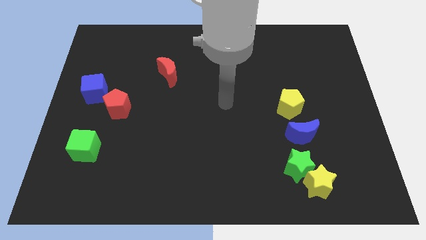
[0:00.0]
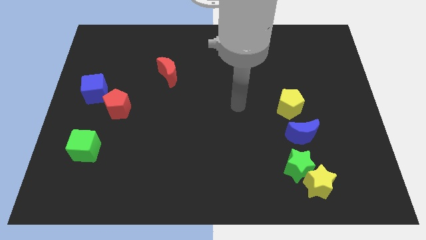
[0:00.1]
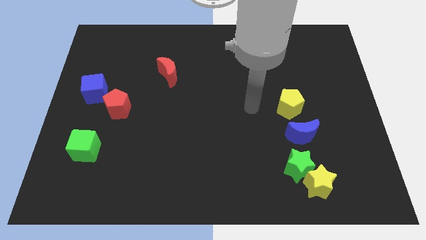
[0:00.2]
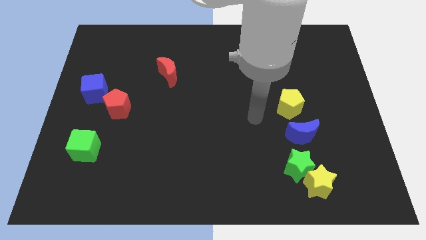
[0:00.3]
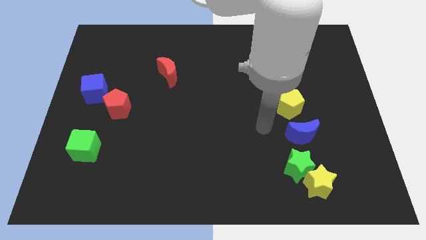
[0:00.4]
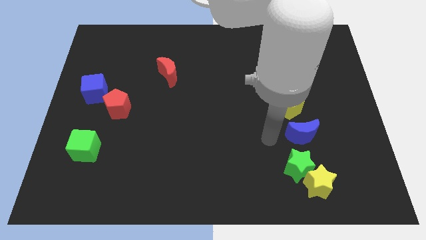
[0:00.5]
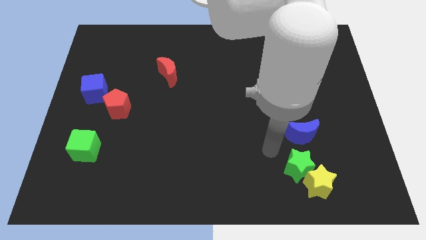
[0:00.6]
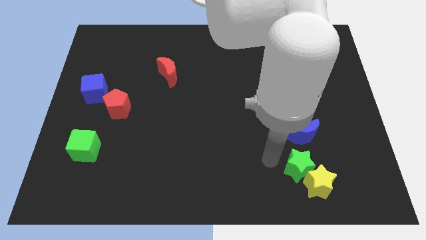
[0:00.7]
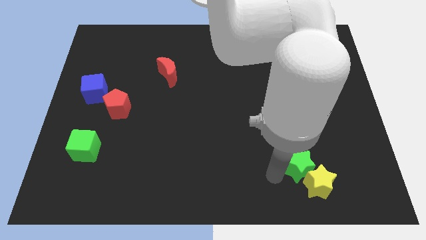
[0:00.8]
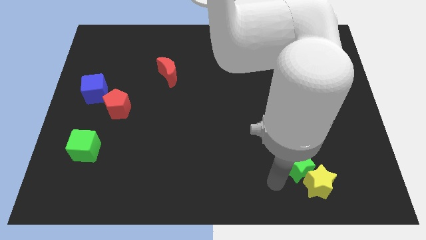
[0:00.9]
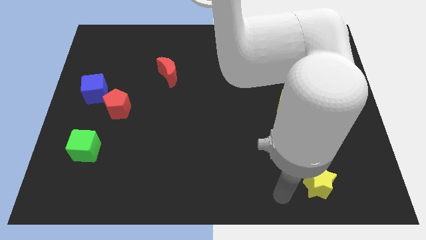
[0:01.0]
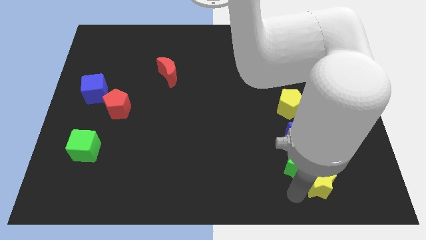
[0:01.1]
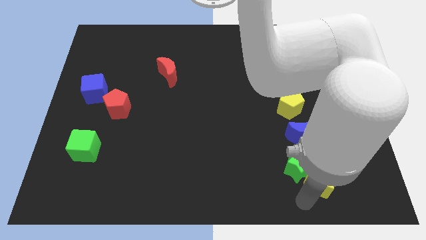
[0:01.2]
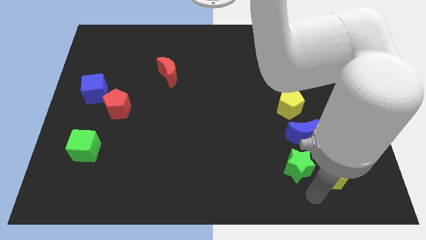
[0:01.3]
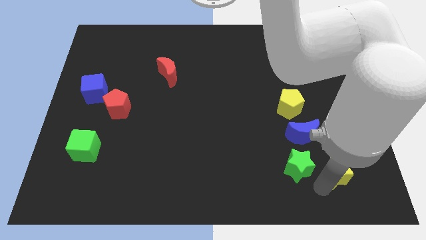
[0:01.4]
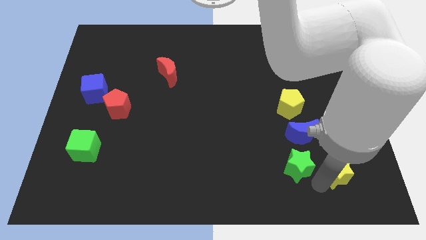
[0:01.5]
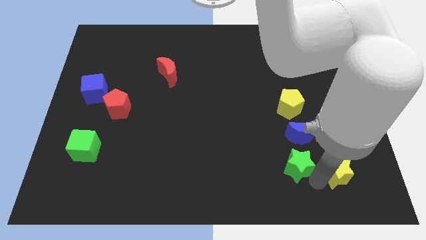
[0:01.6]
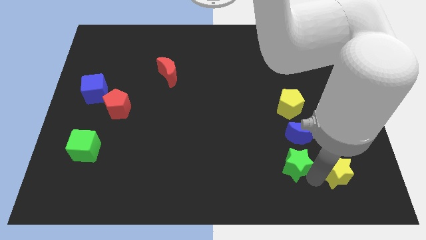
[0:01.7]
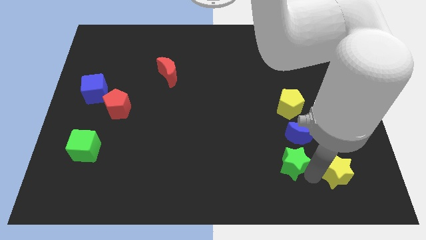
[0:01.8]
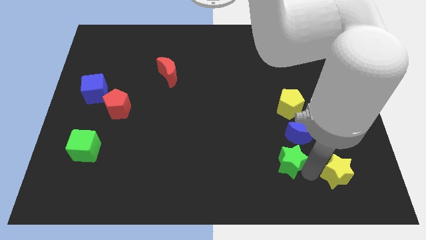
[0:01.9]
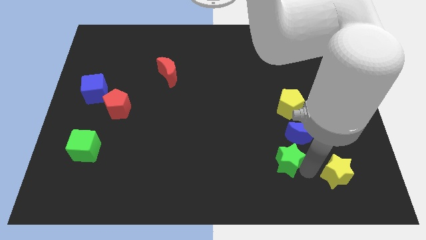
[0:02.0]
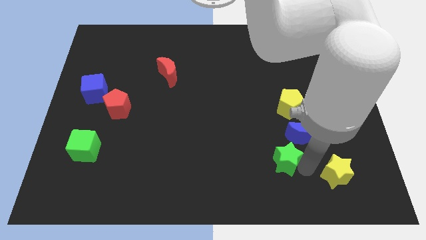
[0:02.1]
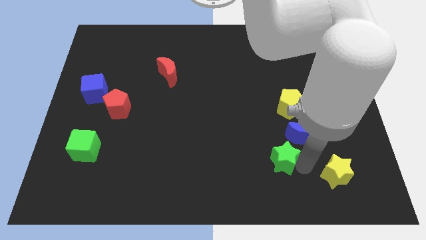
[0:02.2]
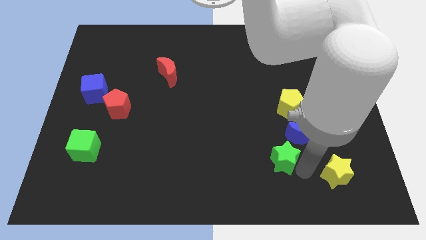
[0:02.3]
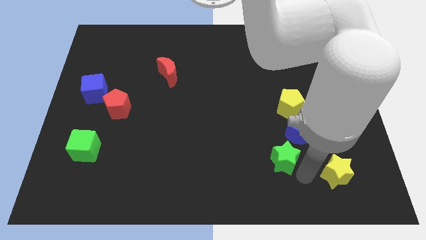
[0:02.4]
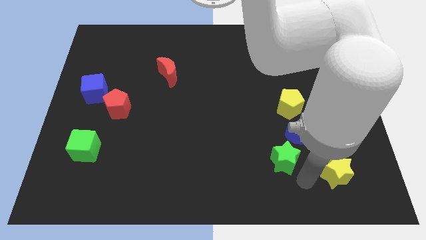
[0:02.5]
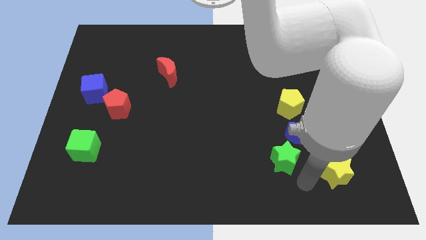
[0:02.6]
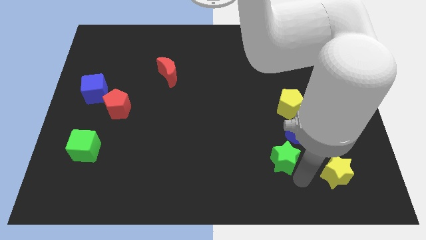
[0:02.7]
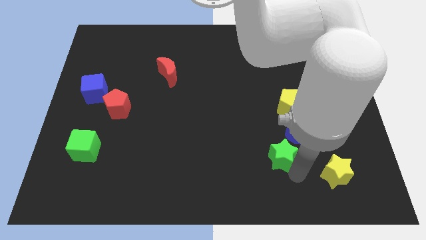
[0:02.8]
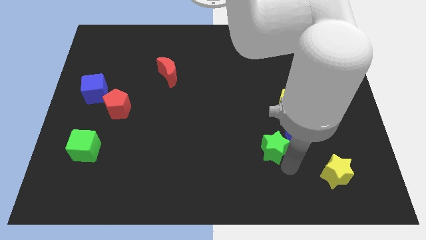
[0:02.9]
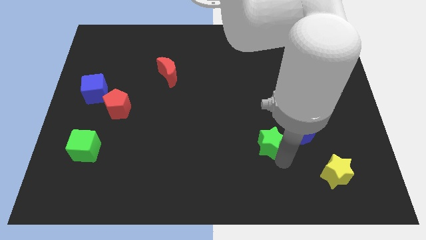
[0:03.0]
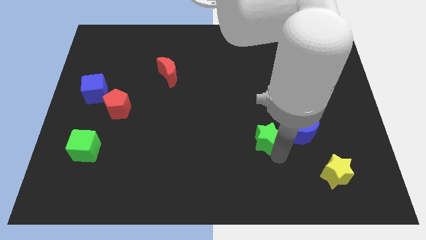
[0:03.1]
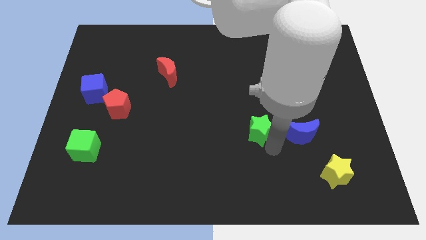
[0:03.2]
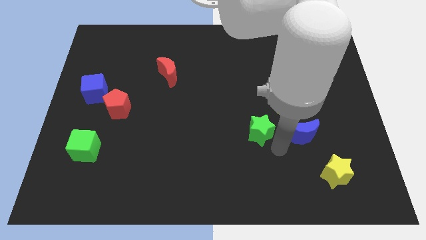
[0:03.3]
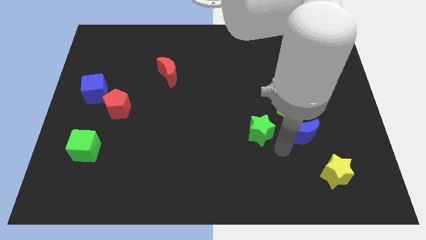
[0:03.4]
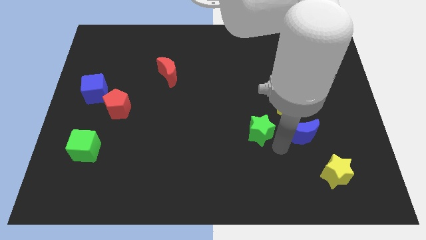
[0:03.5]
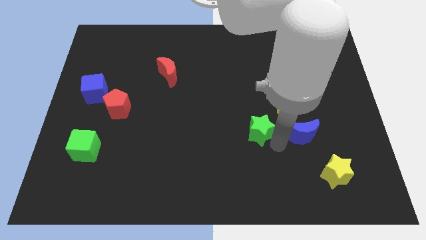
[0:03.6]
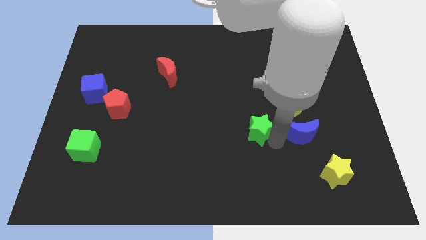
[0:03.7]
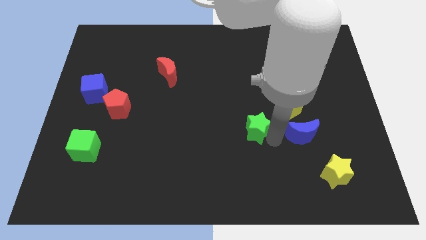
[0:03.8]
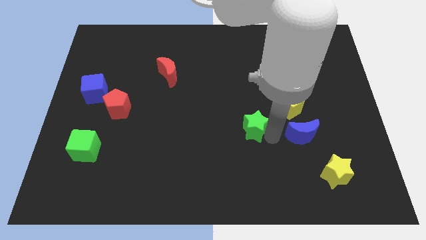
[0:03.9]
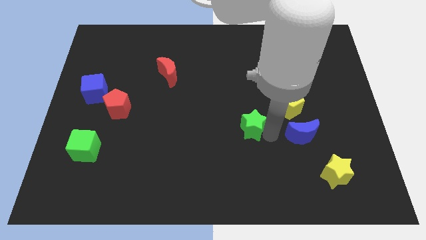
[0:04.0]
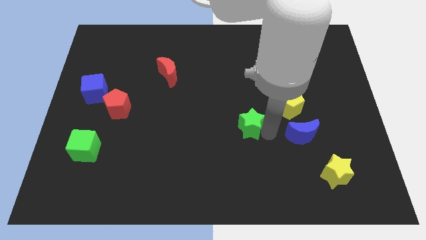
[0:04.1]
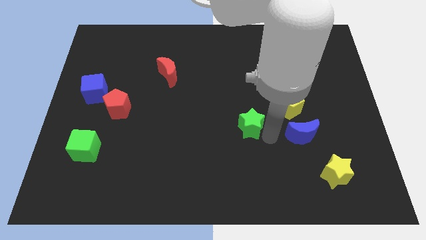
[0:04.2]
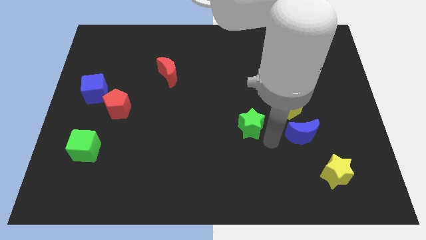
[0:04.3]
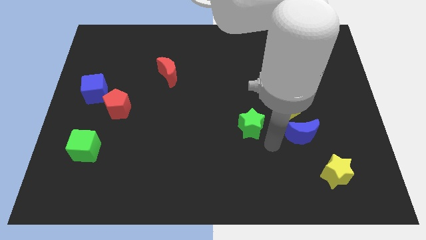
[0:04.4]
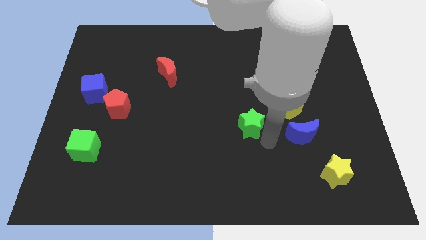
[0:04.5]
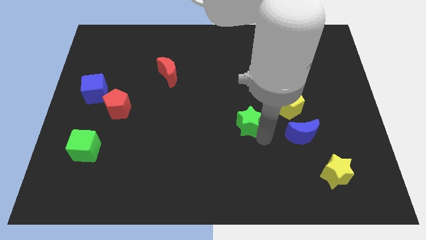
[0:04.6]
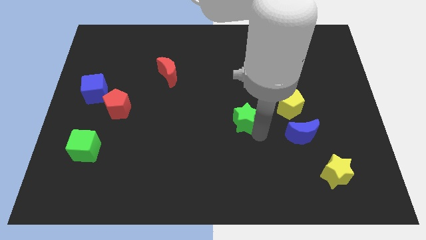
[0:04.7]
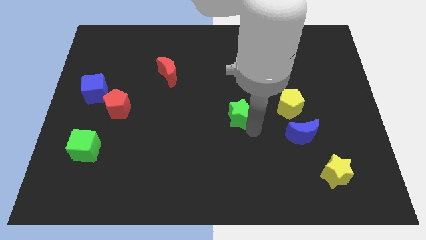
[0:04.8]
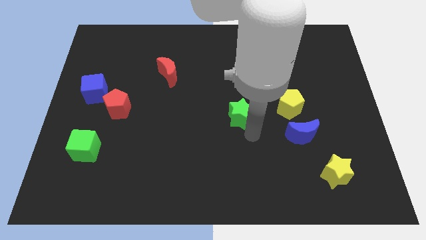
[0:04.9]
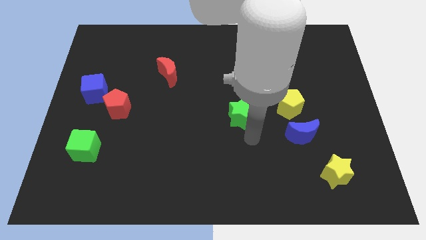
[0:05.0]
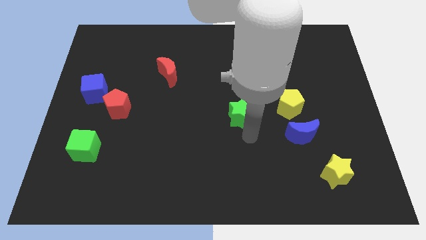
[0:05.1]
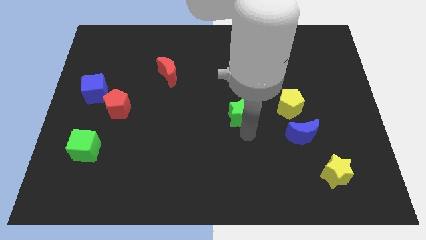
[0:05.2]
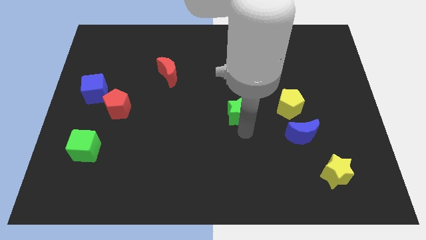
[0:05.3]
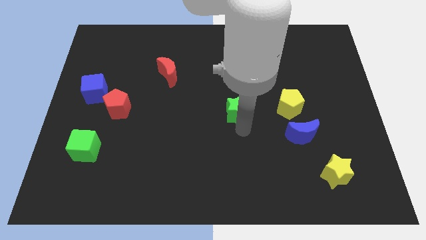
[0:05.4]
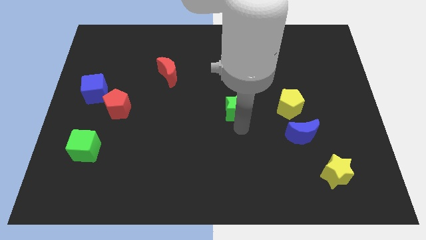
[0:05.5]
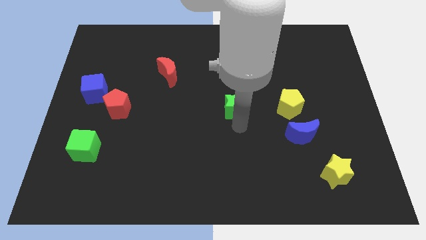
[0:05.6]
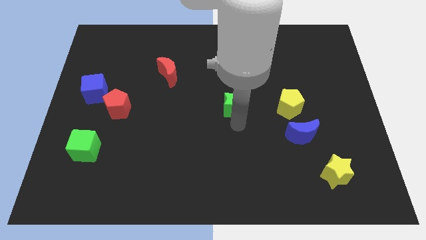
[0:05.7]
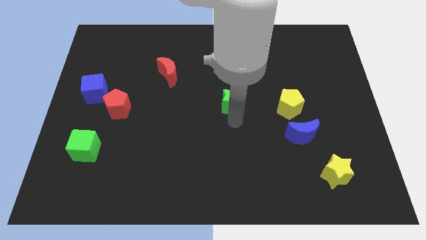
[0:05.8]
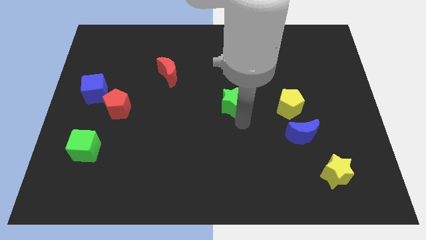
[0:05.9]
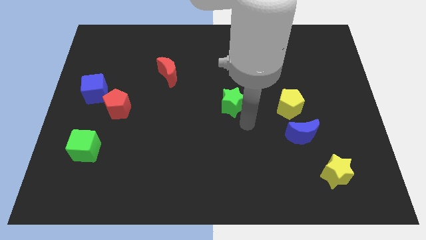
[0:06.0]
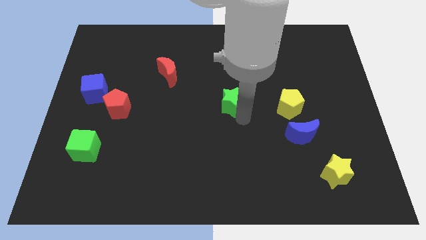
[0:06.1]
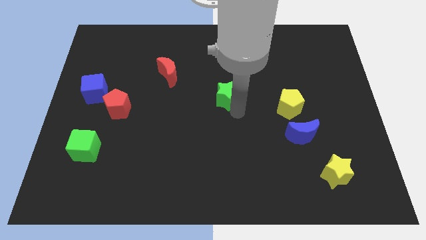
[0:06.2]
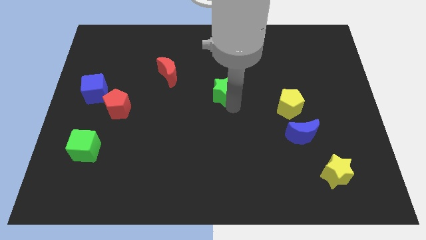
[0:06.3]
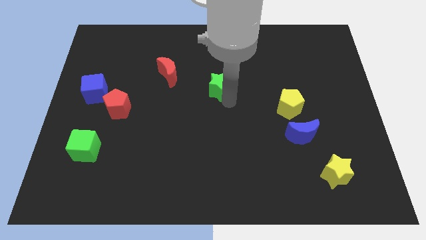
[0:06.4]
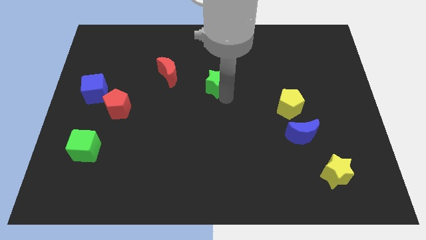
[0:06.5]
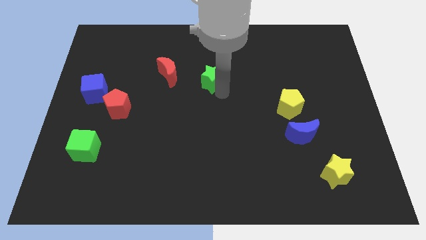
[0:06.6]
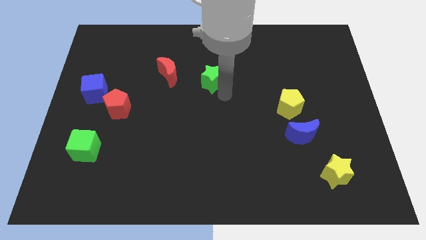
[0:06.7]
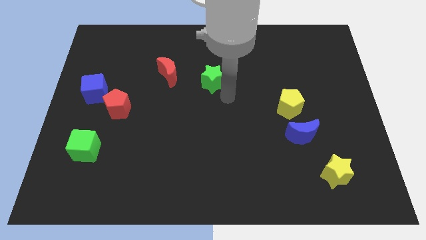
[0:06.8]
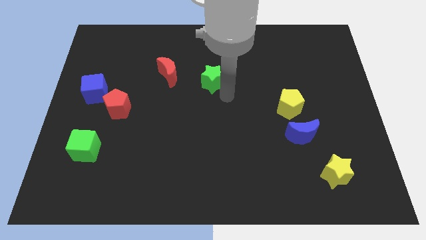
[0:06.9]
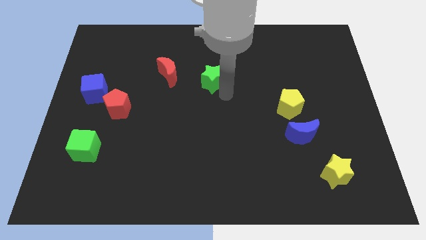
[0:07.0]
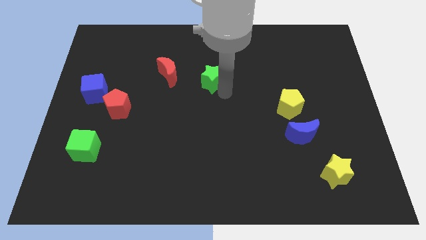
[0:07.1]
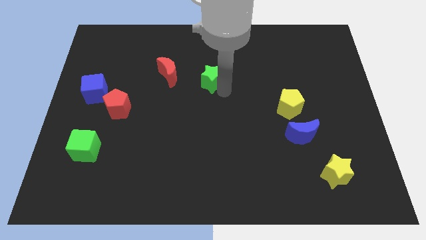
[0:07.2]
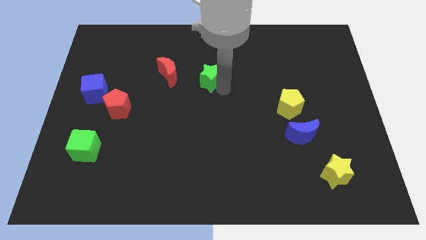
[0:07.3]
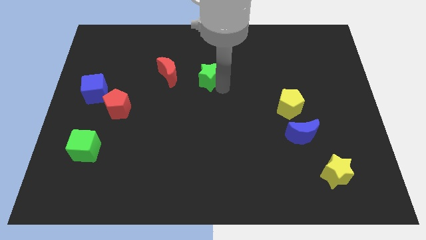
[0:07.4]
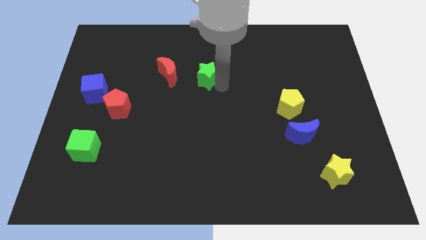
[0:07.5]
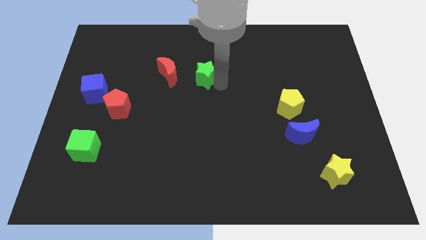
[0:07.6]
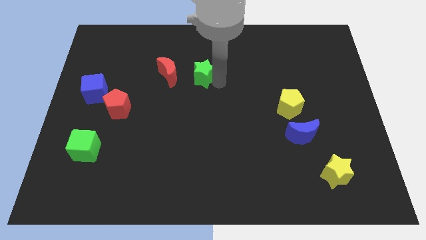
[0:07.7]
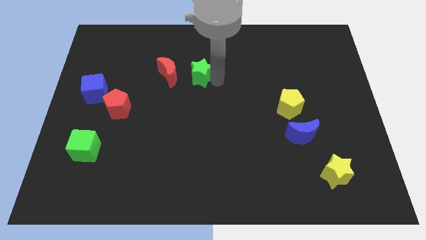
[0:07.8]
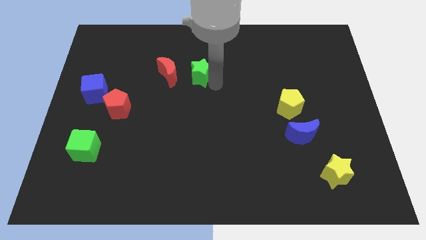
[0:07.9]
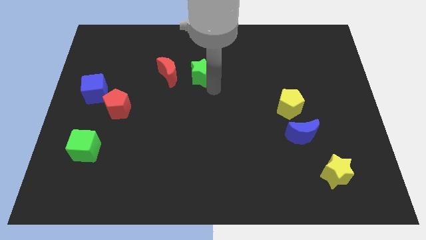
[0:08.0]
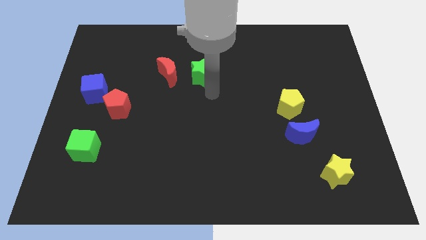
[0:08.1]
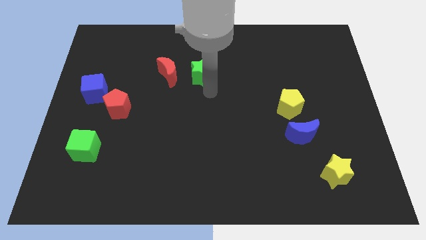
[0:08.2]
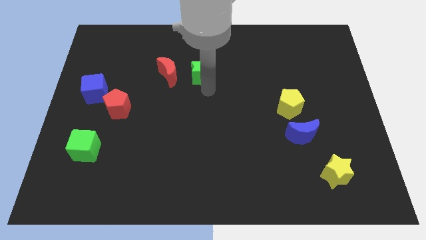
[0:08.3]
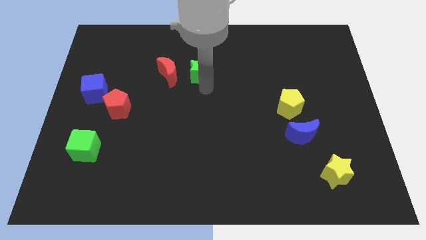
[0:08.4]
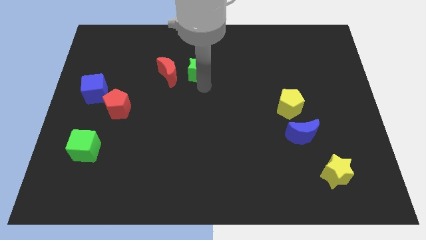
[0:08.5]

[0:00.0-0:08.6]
push the green star to the top right side of the red moon
